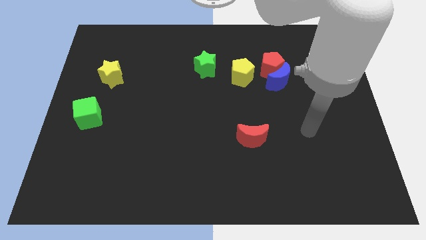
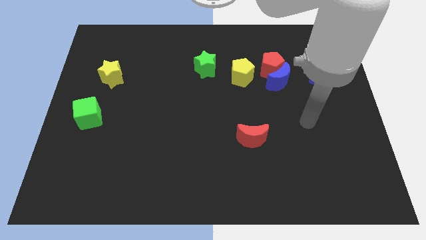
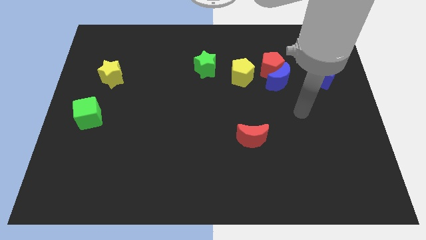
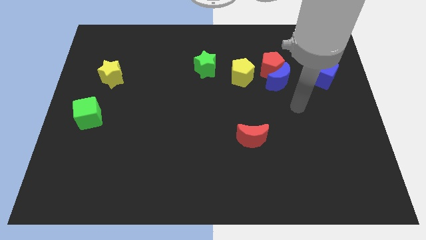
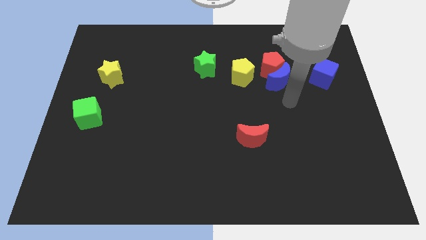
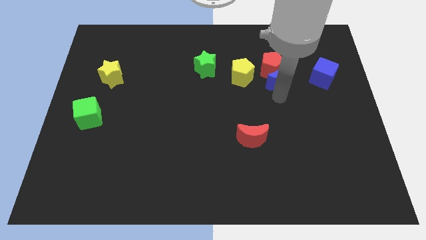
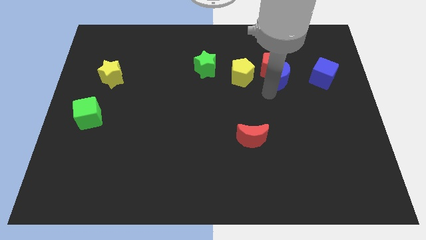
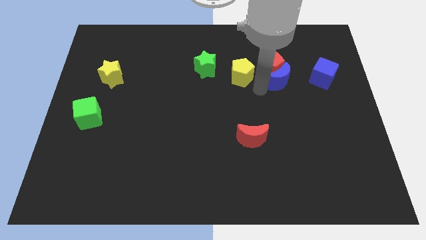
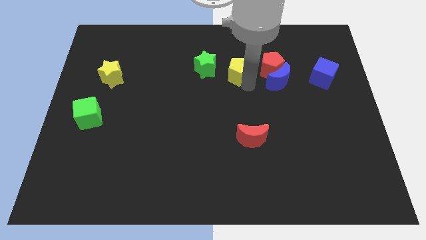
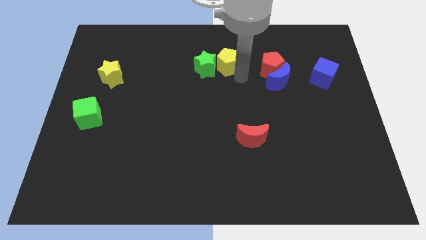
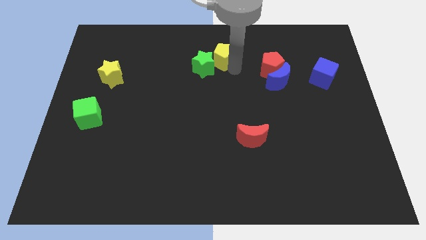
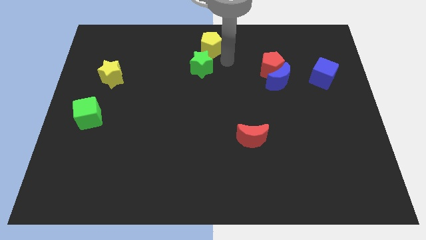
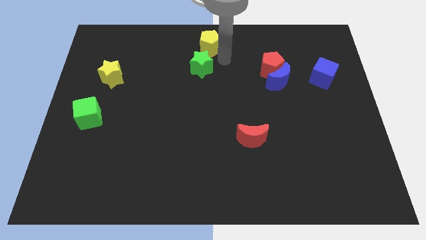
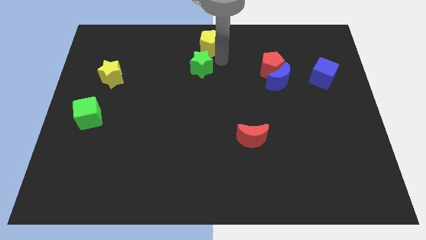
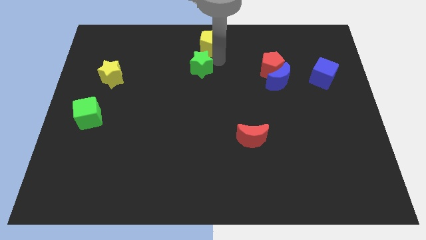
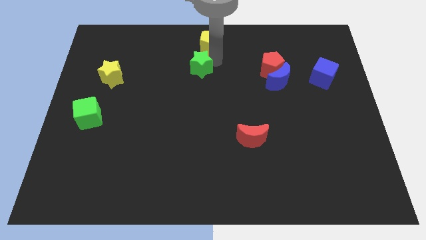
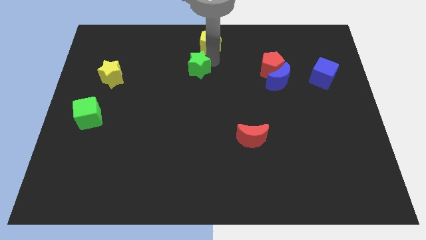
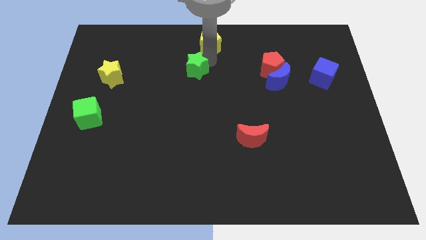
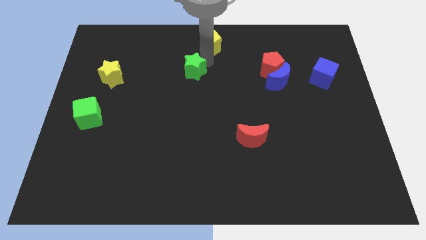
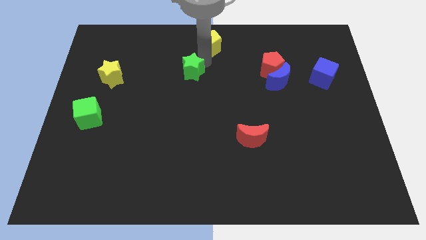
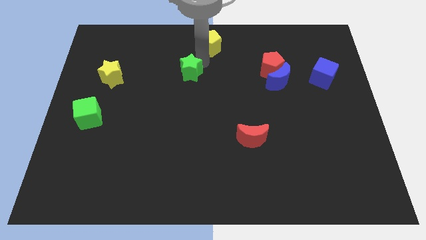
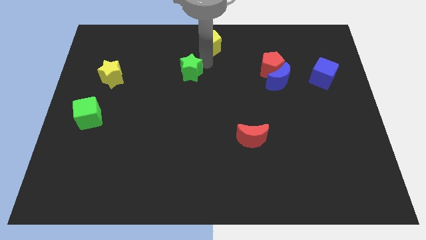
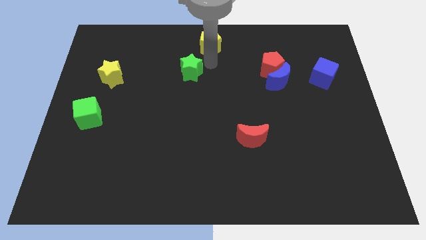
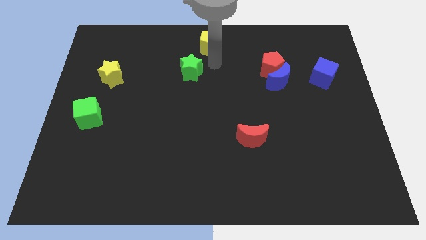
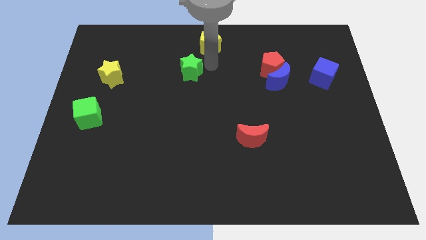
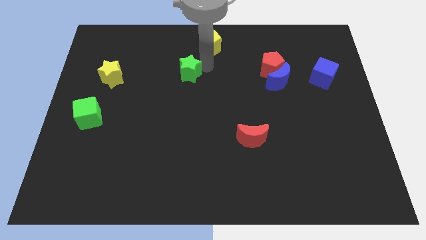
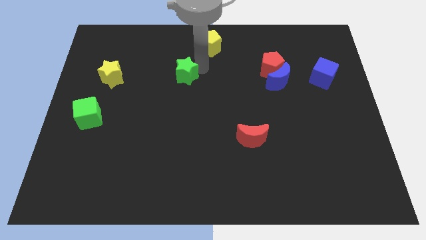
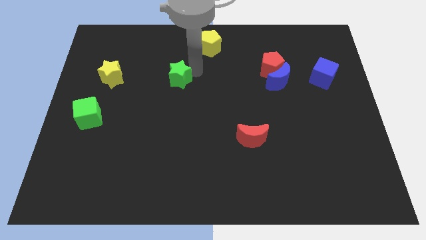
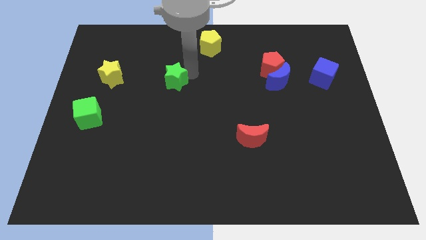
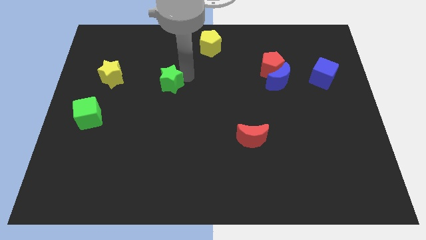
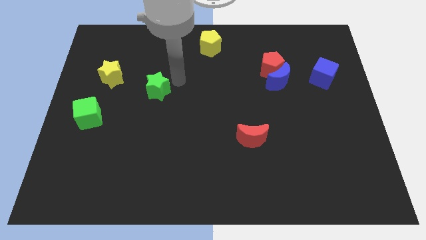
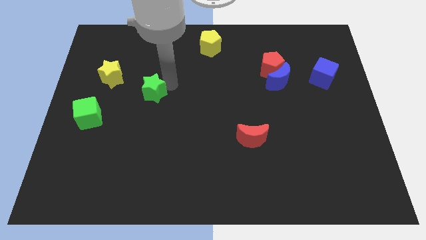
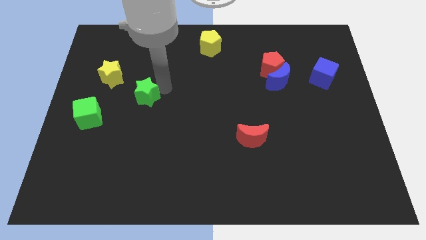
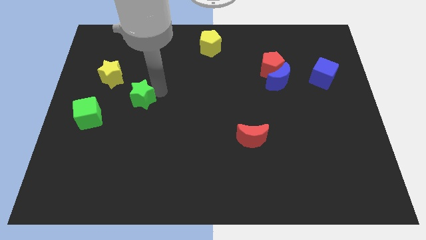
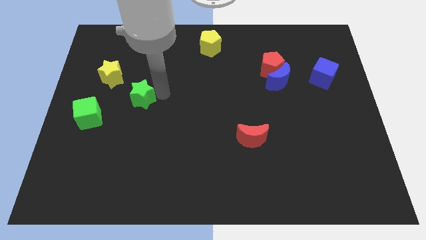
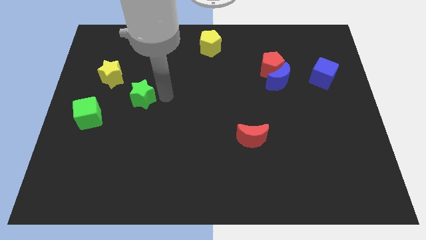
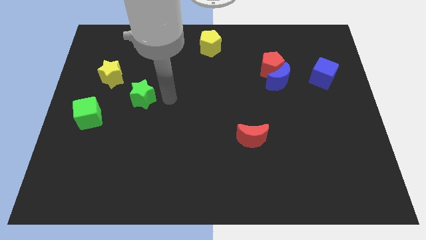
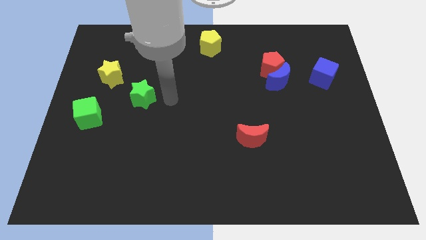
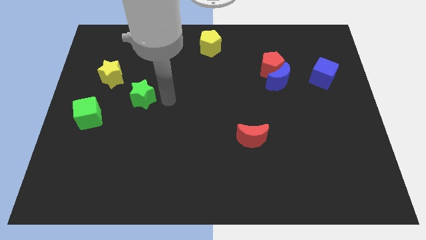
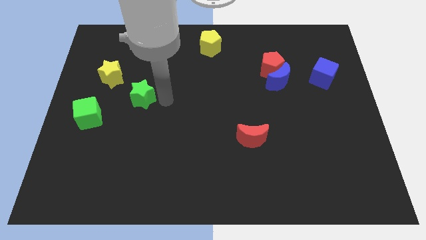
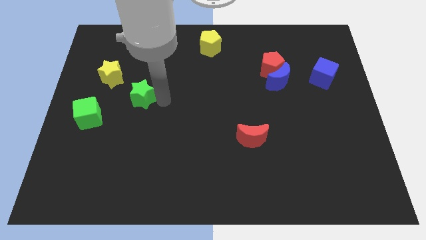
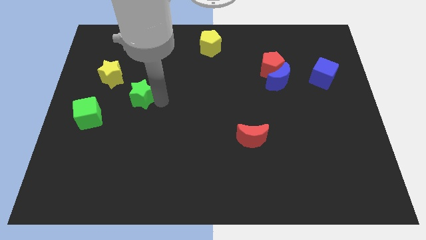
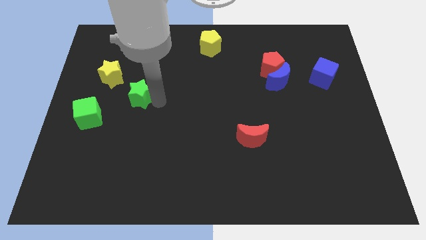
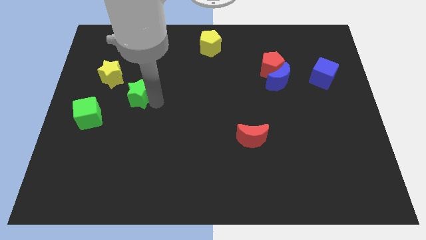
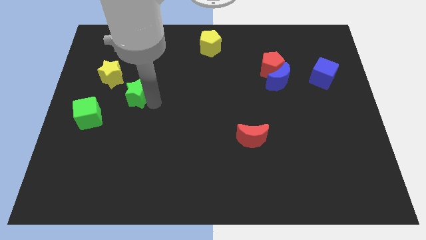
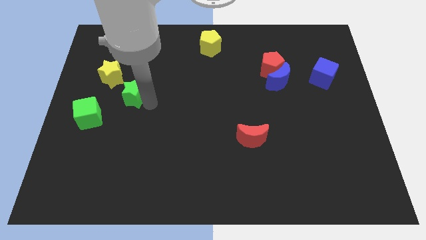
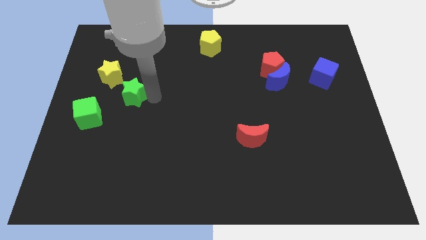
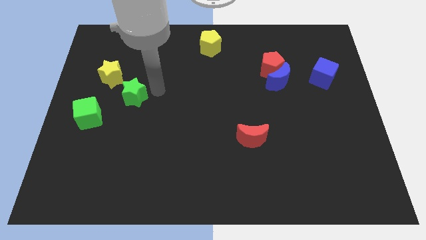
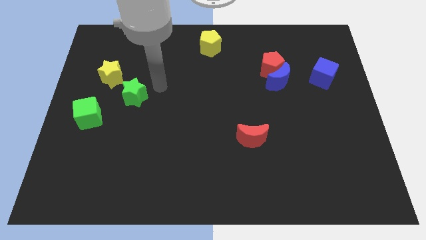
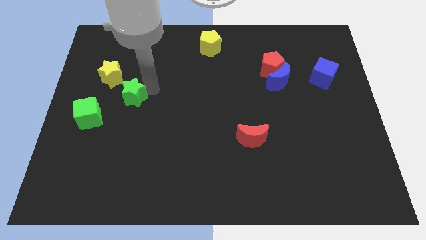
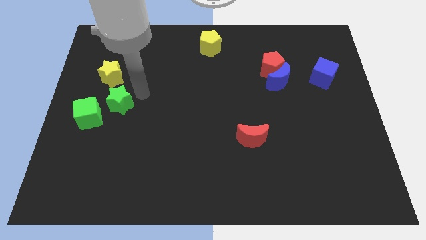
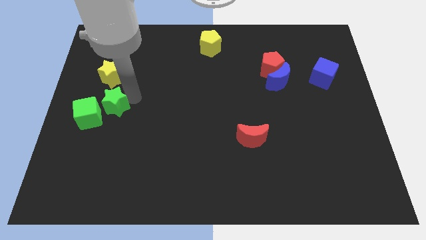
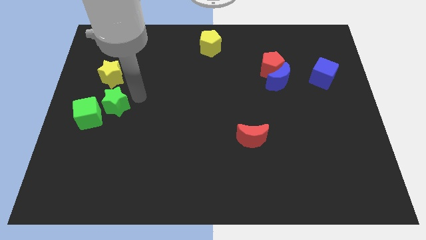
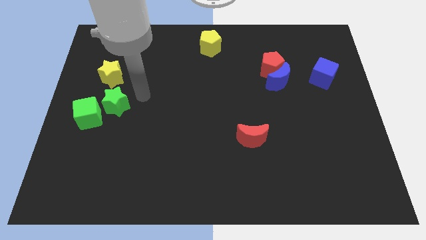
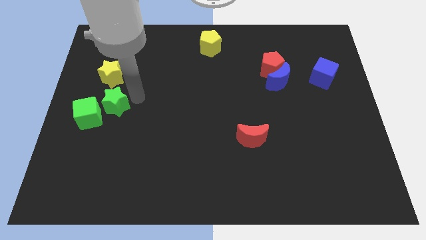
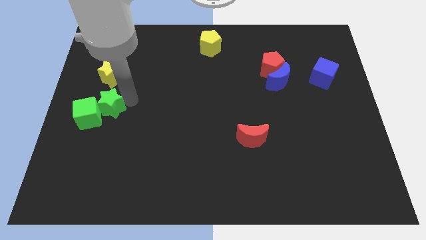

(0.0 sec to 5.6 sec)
move the green star towards the green cube

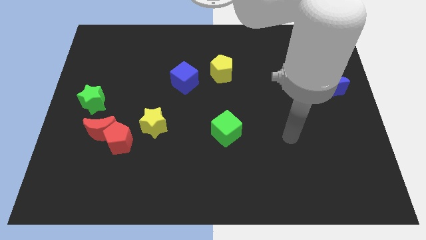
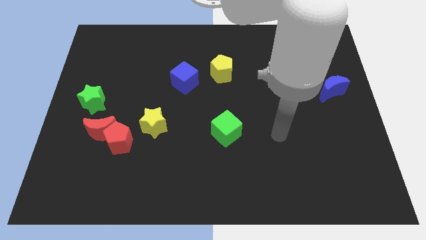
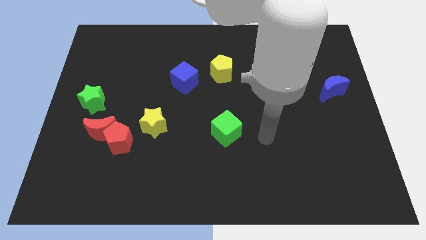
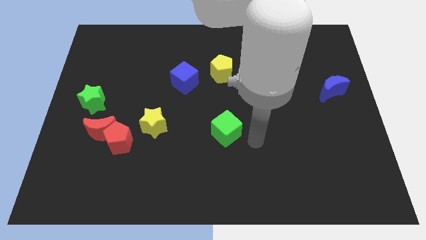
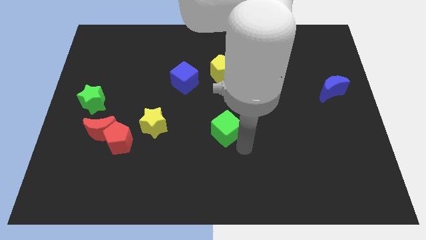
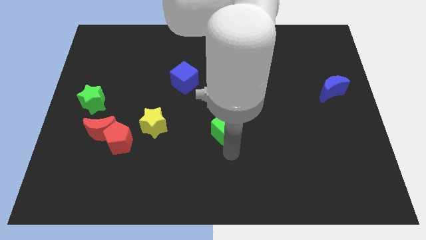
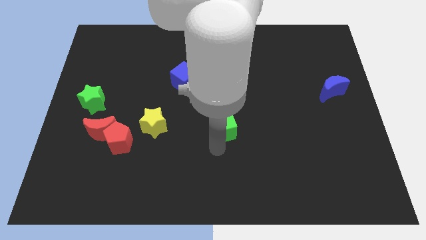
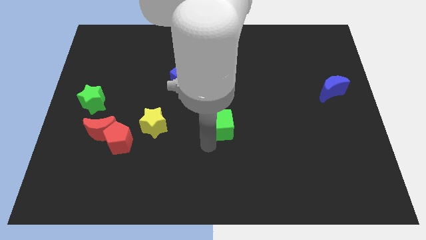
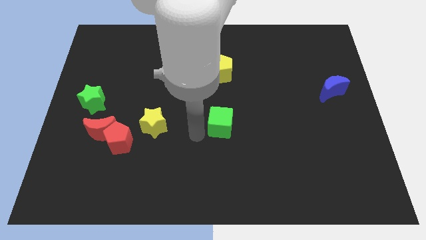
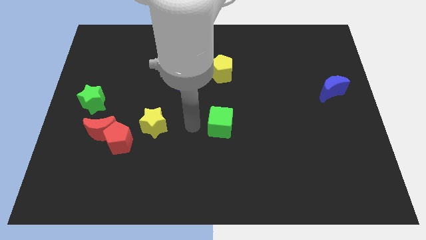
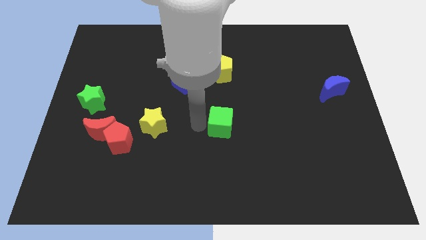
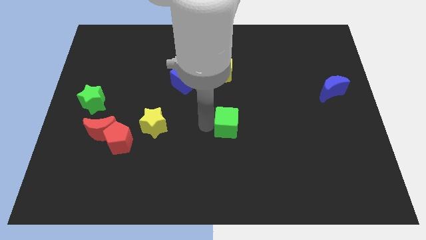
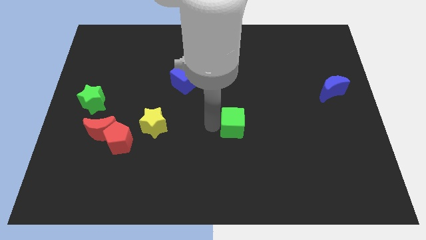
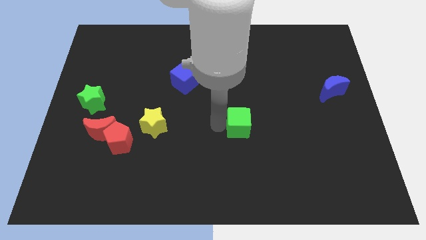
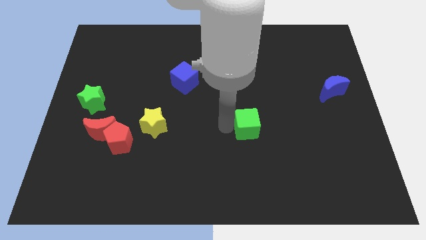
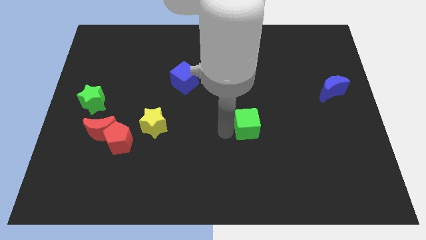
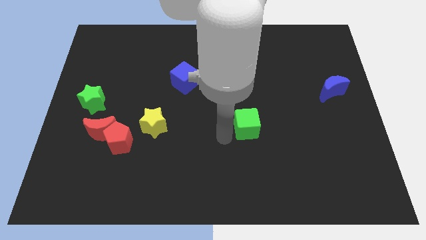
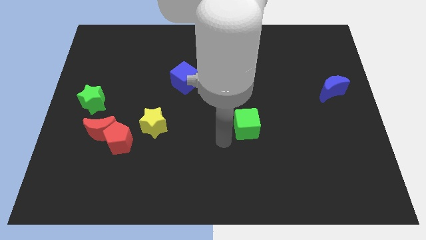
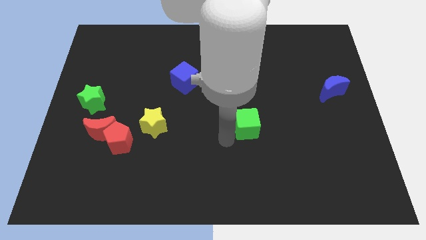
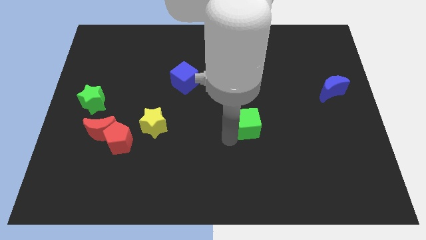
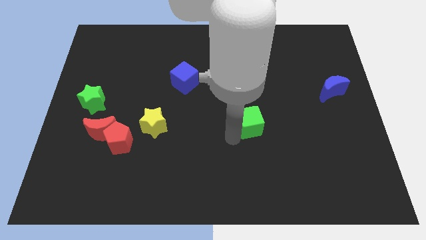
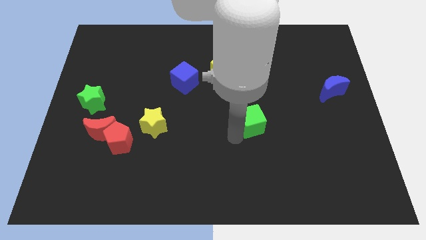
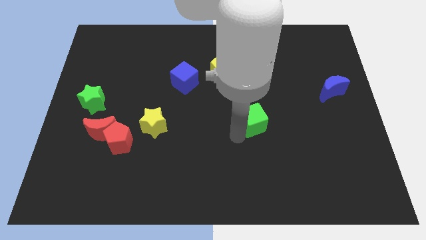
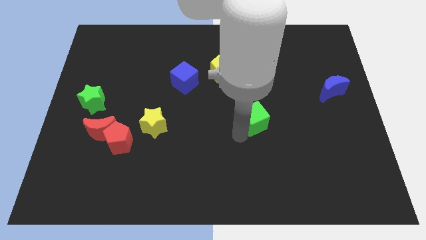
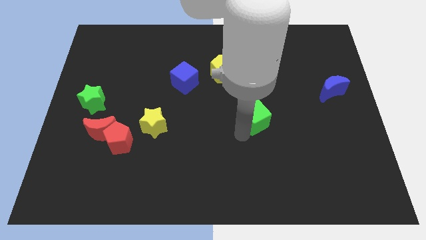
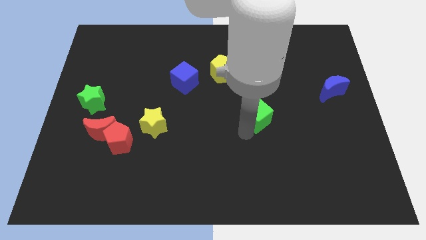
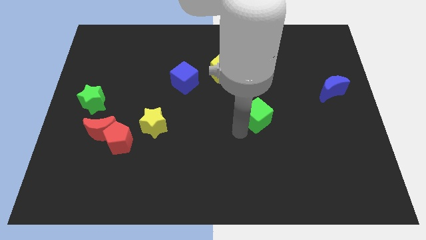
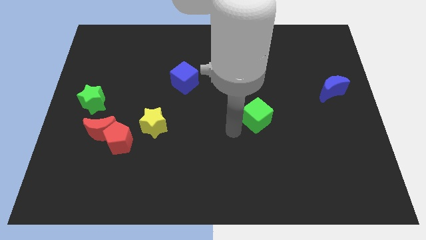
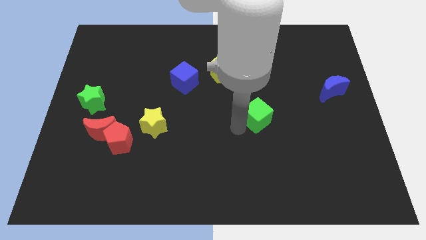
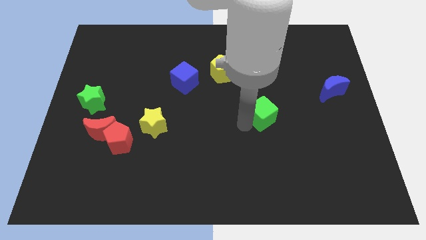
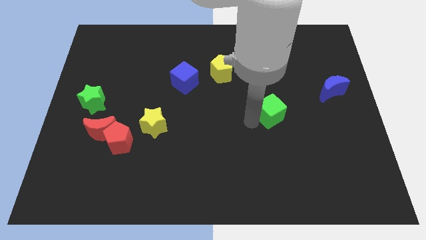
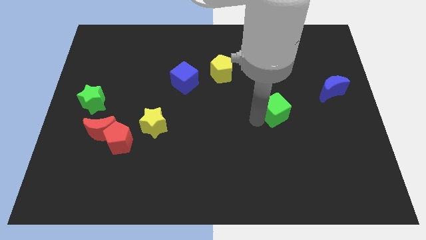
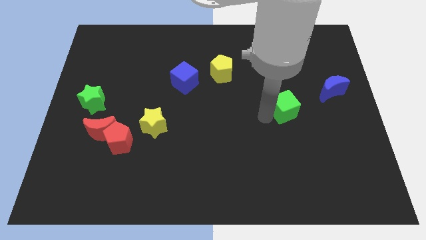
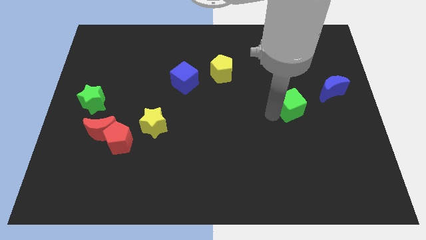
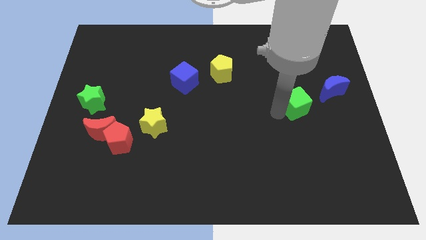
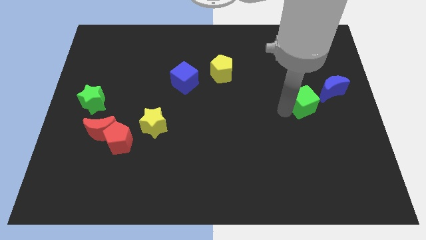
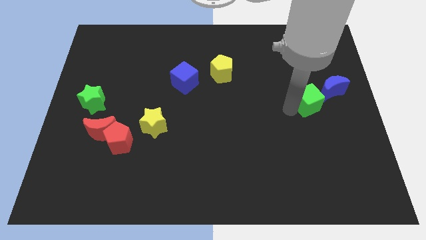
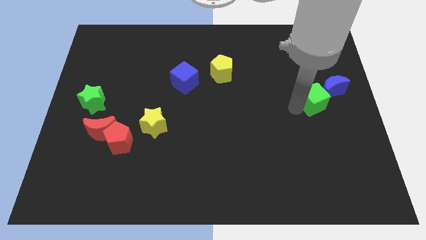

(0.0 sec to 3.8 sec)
push the green cube towards the blue moon
